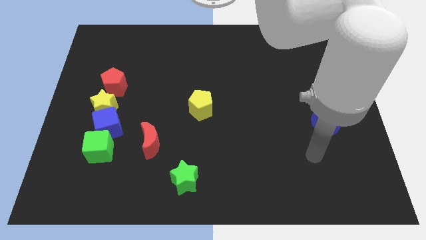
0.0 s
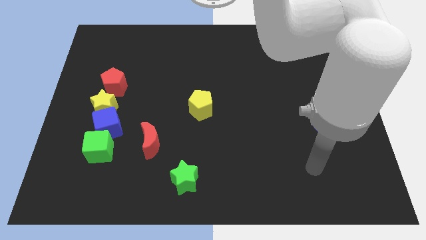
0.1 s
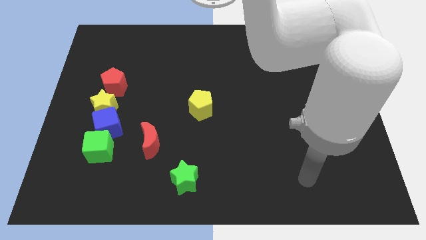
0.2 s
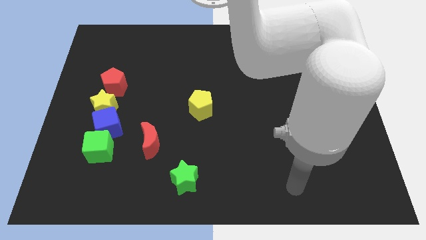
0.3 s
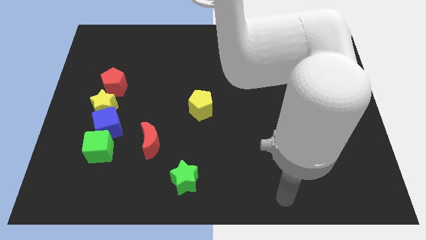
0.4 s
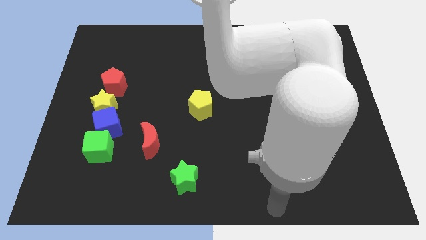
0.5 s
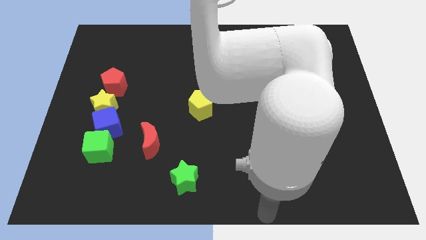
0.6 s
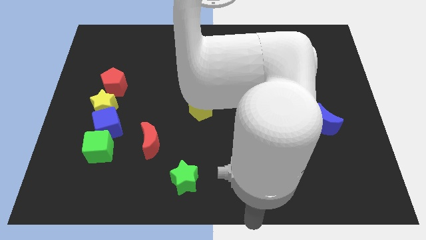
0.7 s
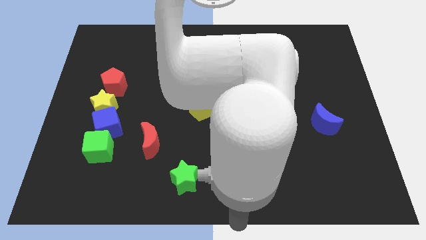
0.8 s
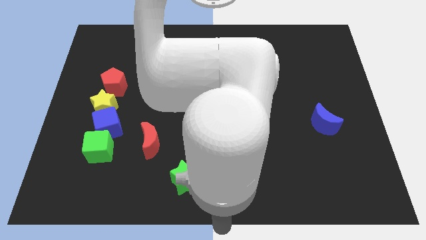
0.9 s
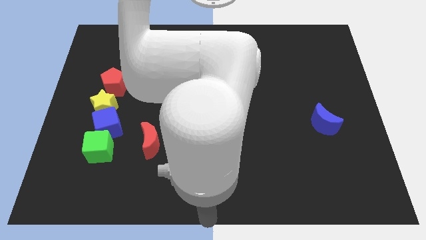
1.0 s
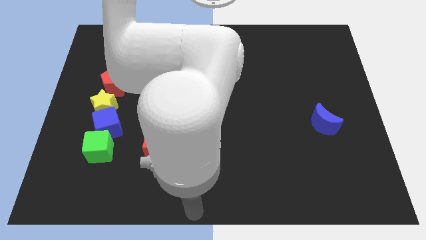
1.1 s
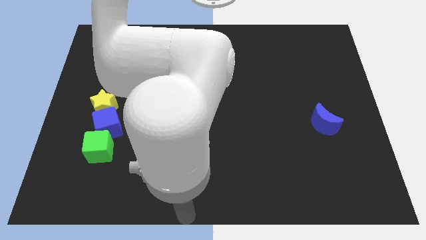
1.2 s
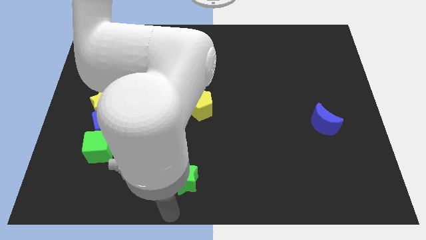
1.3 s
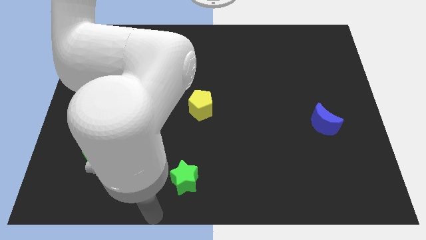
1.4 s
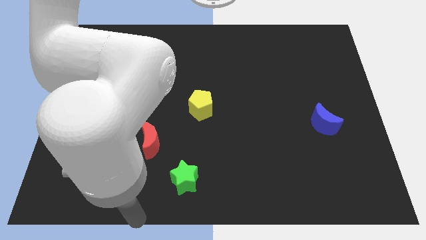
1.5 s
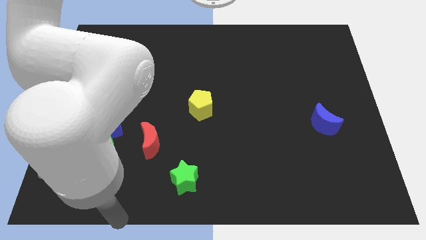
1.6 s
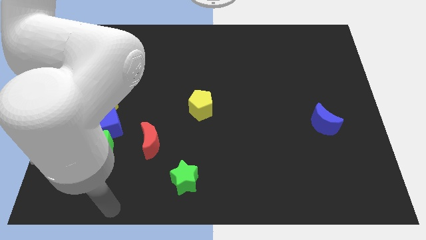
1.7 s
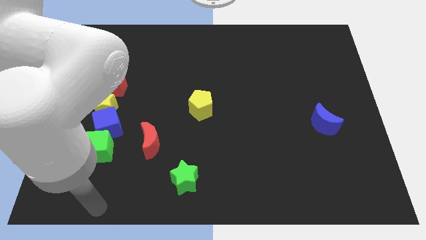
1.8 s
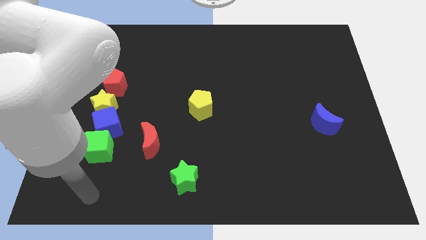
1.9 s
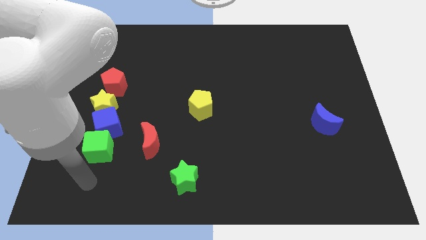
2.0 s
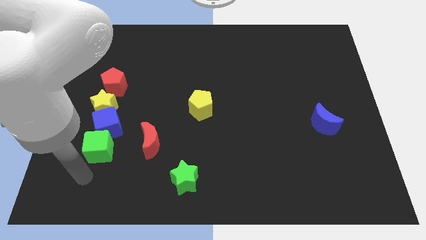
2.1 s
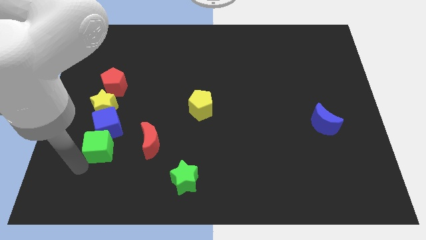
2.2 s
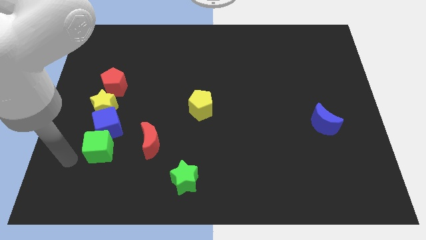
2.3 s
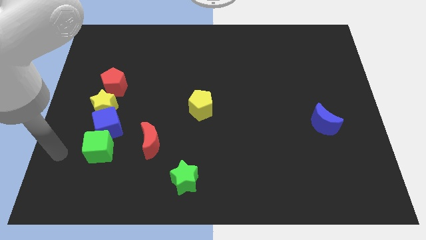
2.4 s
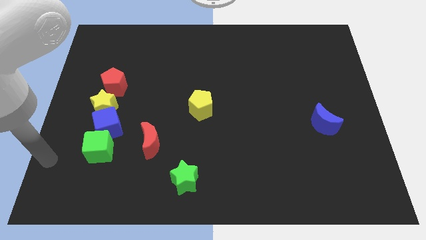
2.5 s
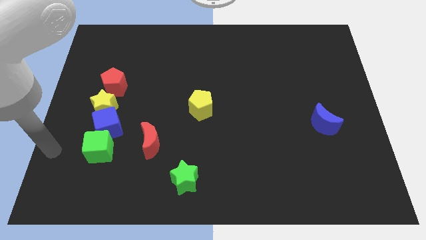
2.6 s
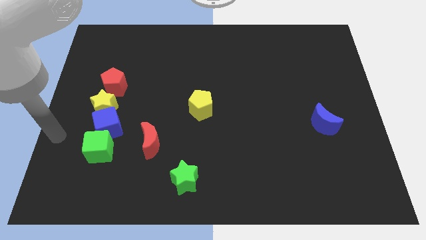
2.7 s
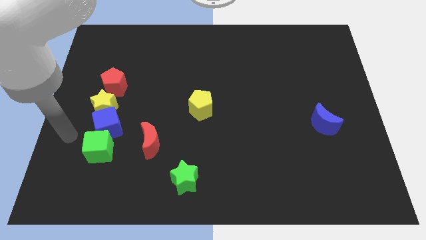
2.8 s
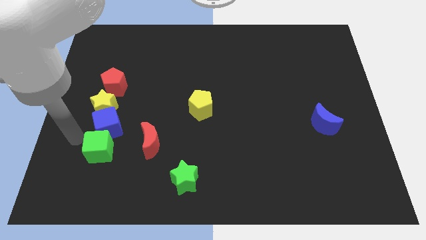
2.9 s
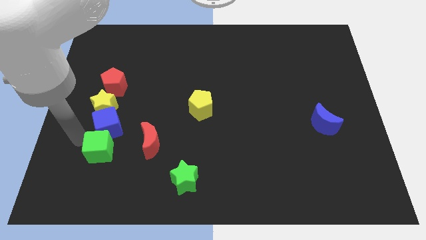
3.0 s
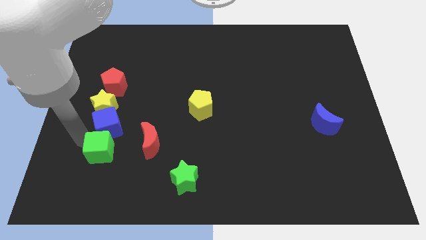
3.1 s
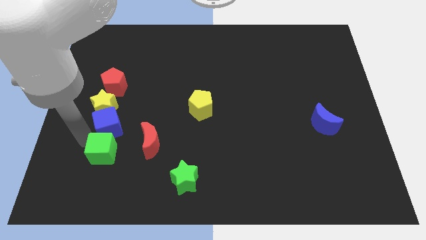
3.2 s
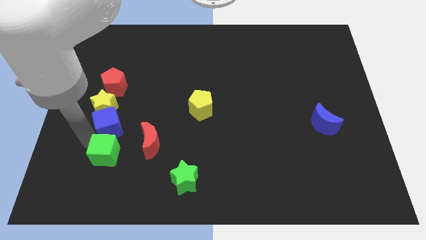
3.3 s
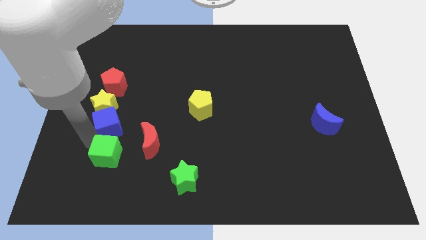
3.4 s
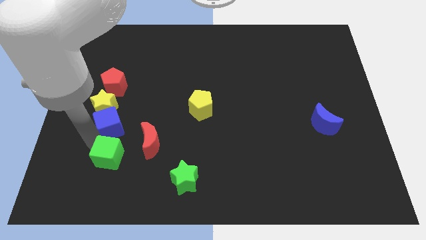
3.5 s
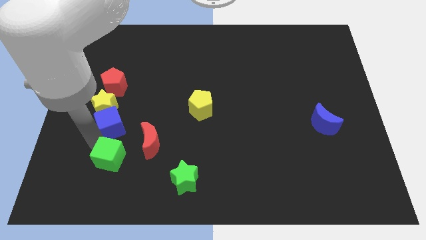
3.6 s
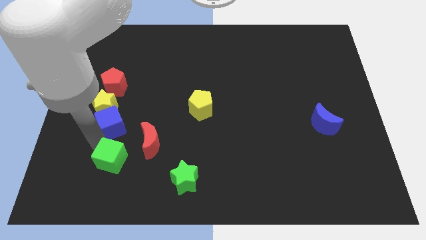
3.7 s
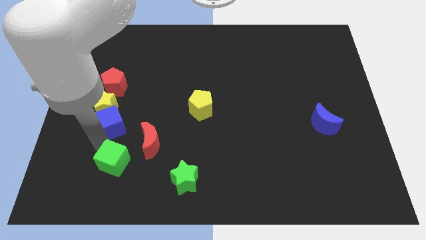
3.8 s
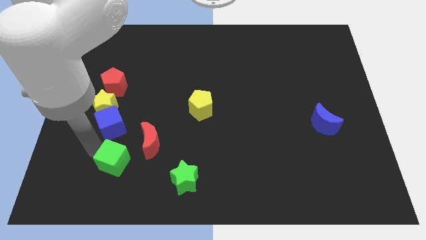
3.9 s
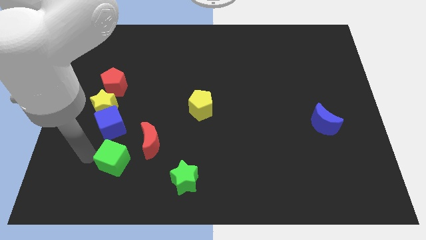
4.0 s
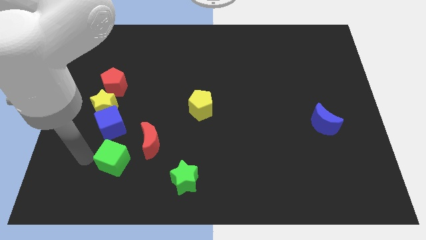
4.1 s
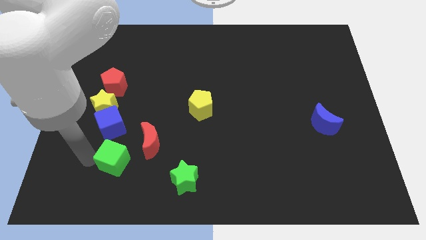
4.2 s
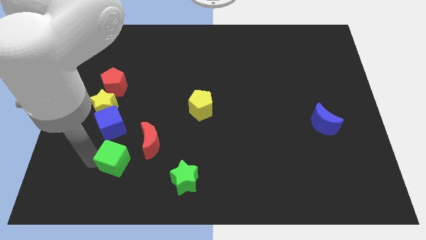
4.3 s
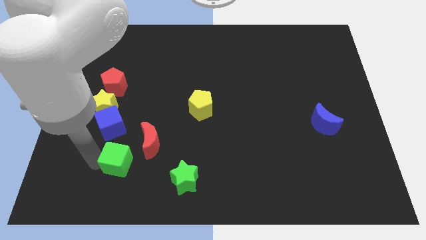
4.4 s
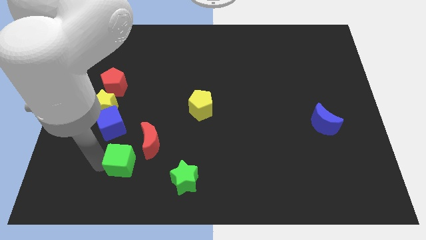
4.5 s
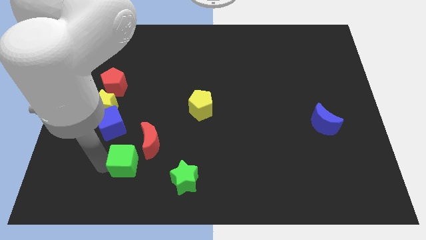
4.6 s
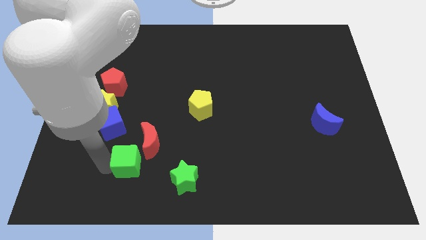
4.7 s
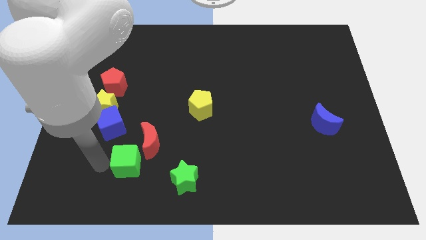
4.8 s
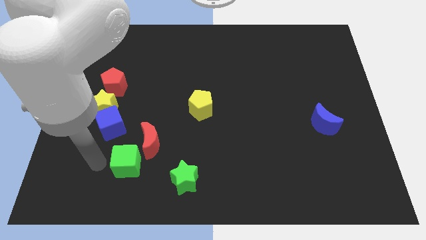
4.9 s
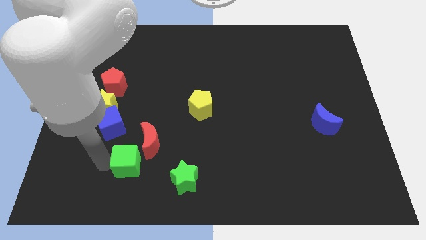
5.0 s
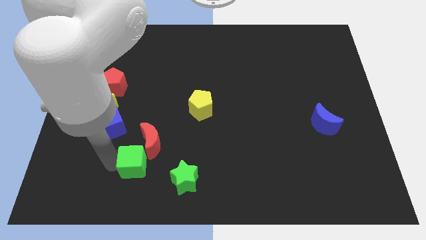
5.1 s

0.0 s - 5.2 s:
push the green cube somewhat to the right

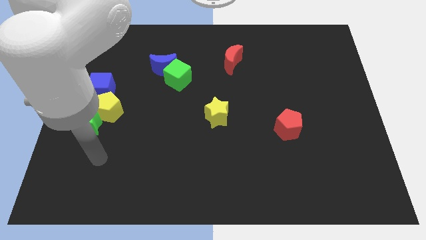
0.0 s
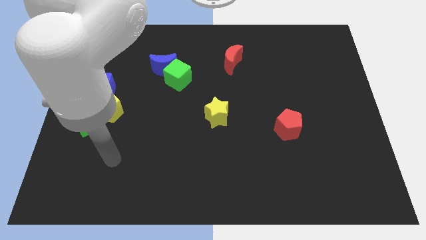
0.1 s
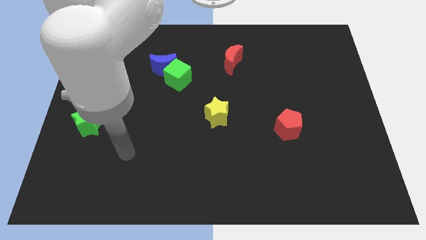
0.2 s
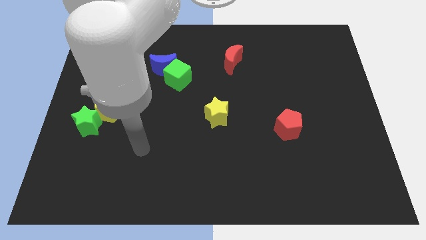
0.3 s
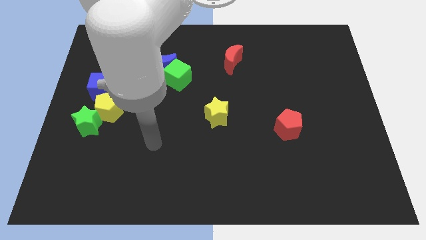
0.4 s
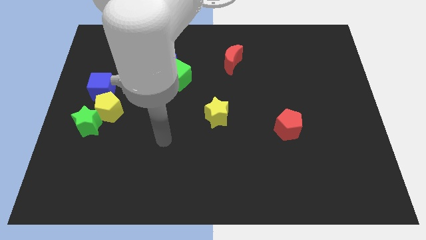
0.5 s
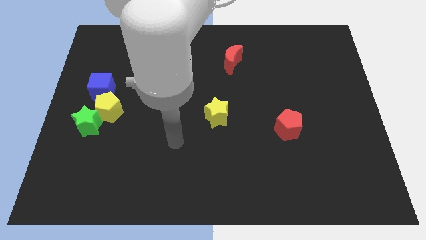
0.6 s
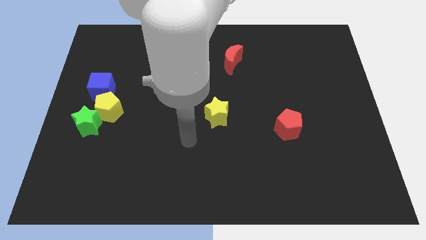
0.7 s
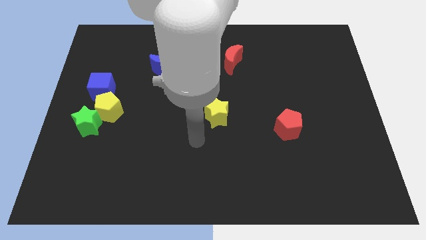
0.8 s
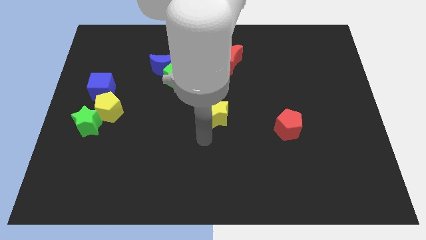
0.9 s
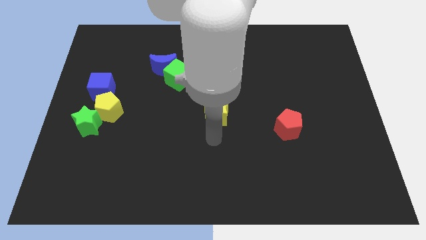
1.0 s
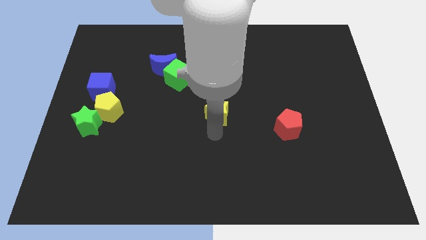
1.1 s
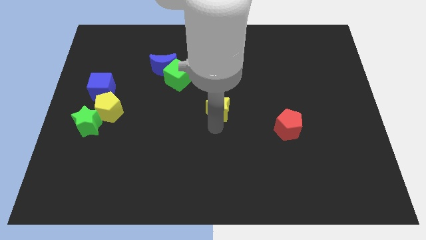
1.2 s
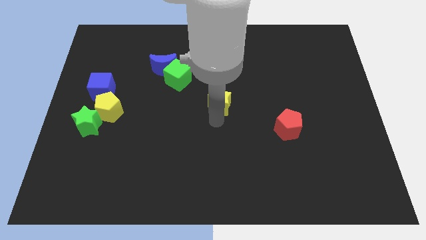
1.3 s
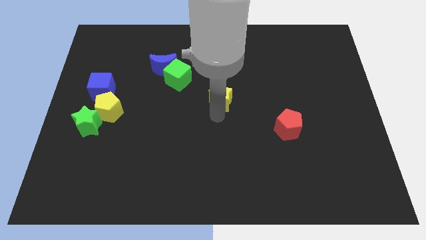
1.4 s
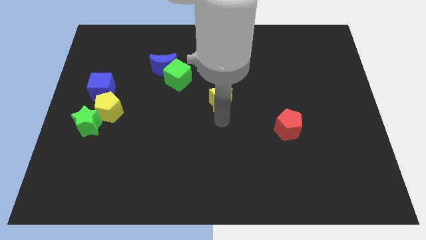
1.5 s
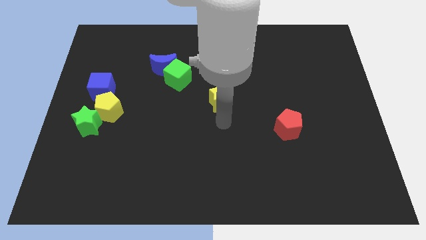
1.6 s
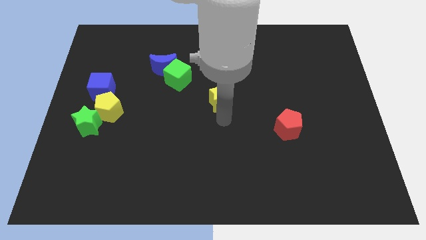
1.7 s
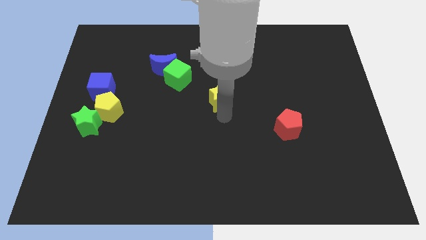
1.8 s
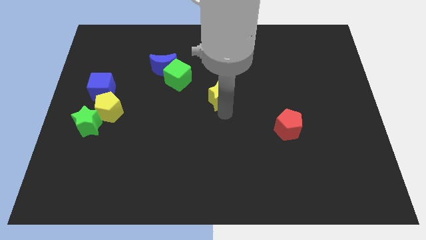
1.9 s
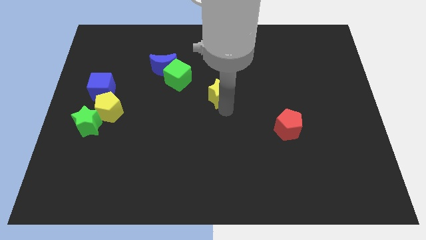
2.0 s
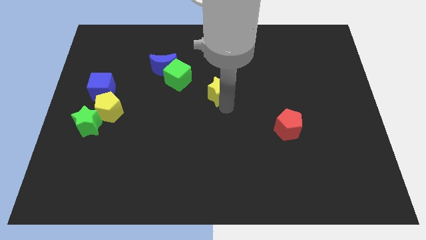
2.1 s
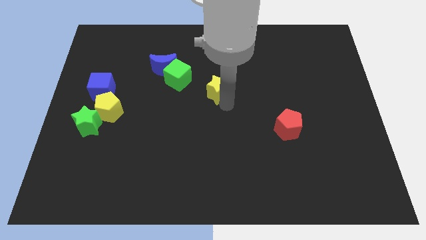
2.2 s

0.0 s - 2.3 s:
push the yellow star up a little

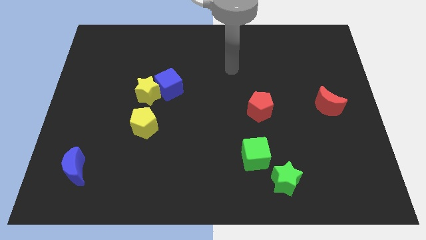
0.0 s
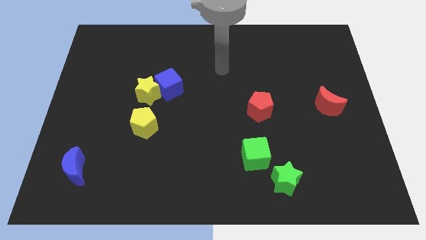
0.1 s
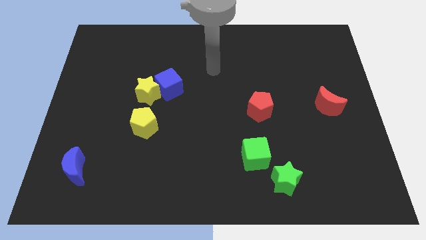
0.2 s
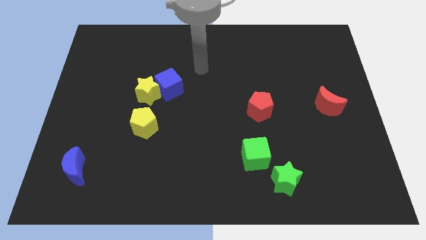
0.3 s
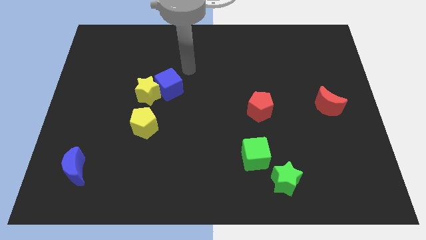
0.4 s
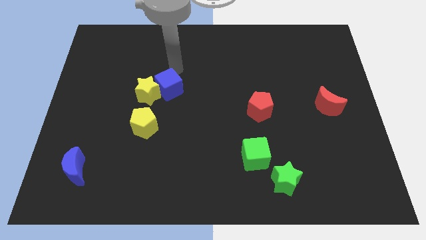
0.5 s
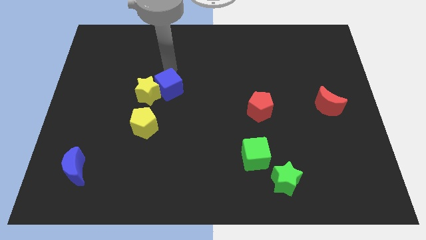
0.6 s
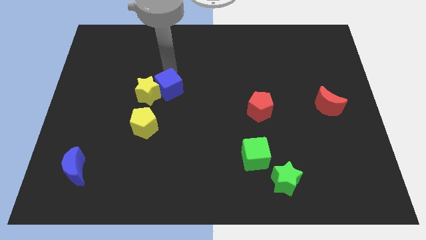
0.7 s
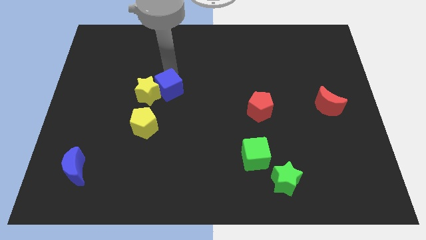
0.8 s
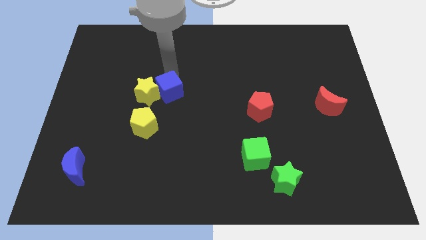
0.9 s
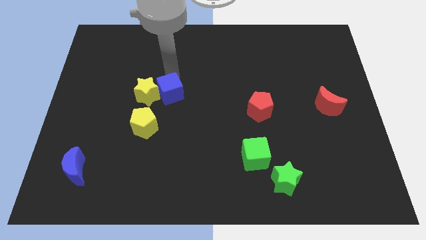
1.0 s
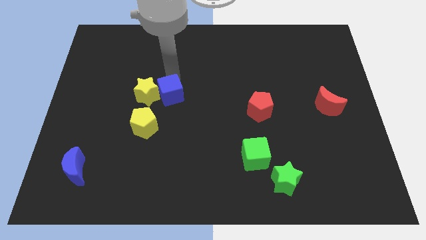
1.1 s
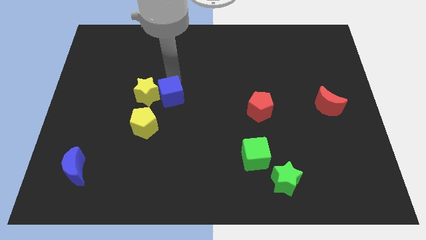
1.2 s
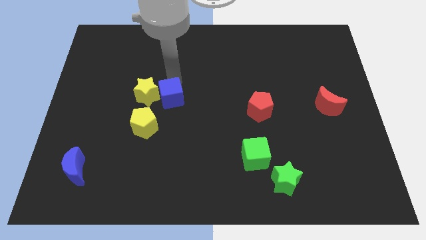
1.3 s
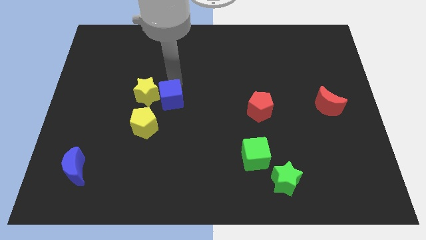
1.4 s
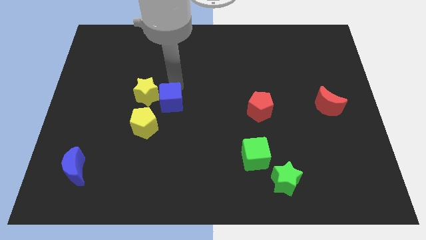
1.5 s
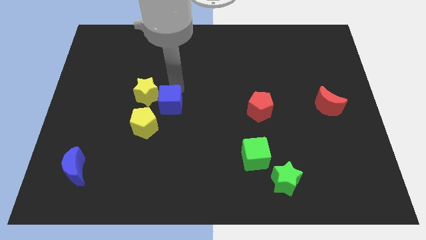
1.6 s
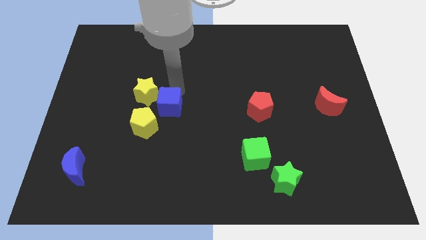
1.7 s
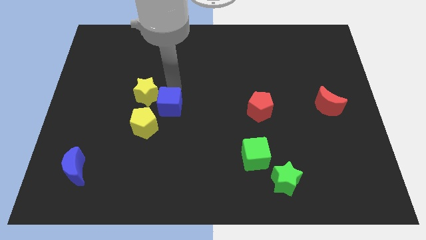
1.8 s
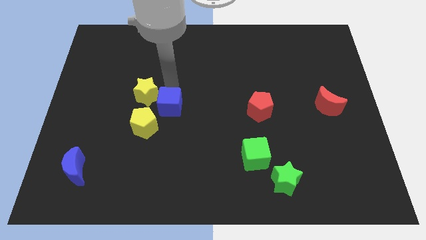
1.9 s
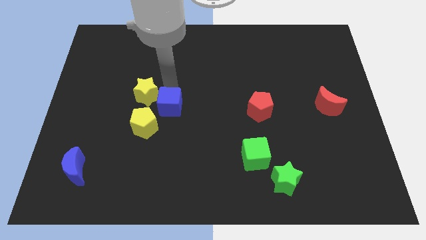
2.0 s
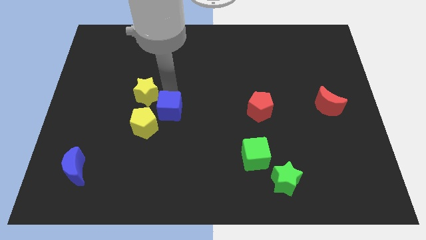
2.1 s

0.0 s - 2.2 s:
slightly slide the blue cube downwards
